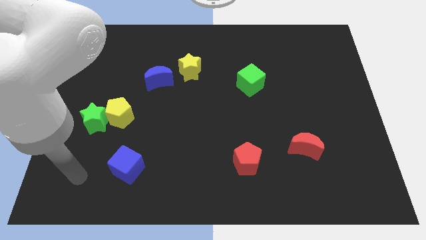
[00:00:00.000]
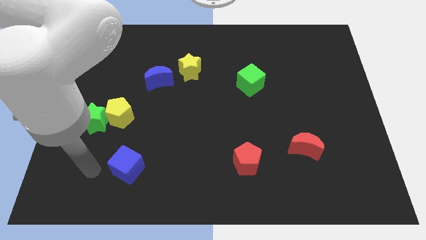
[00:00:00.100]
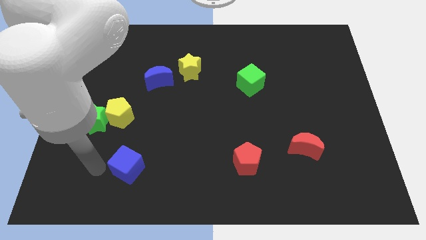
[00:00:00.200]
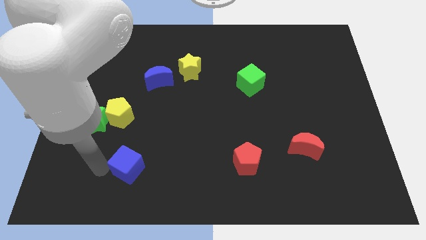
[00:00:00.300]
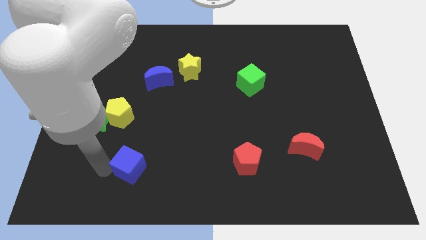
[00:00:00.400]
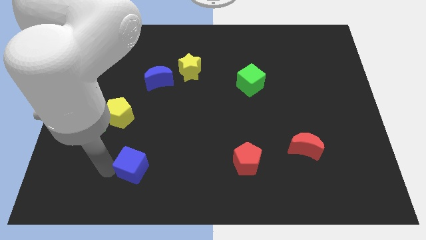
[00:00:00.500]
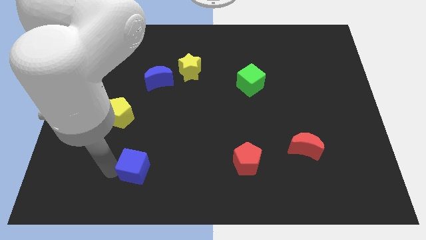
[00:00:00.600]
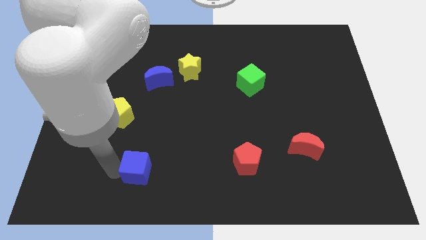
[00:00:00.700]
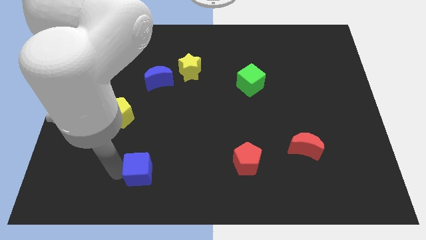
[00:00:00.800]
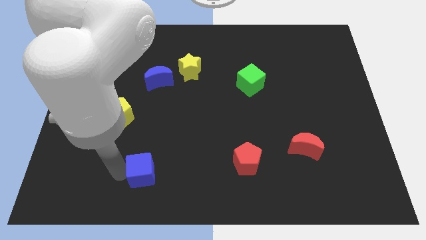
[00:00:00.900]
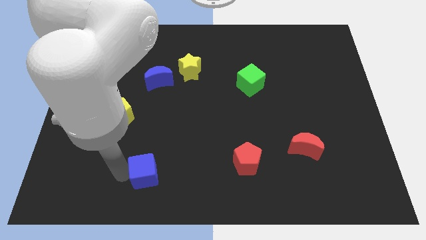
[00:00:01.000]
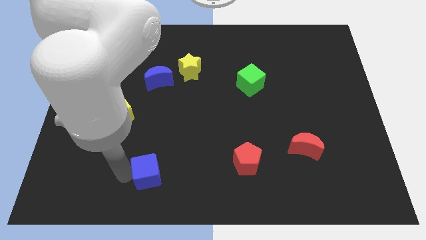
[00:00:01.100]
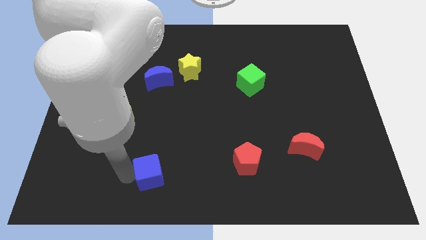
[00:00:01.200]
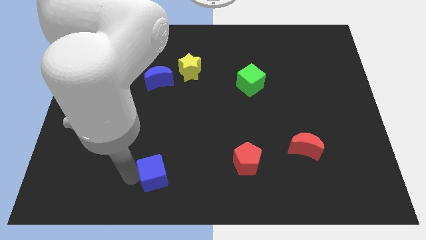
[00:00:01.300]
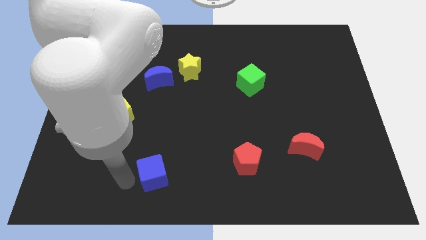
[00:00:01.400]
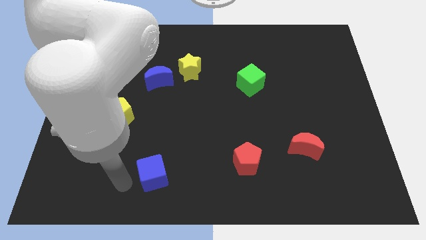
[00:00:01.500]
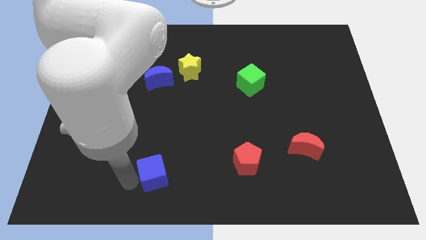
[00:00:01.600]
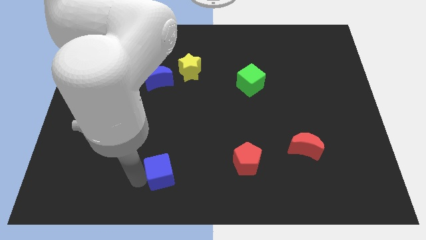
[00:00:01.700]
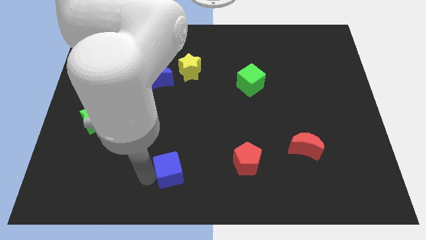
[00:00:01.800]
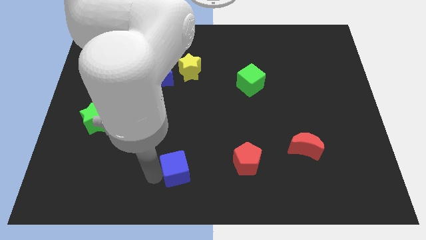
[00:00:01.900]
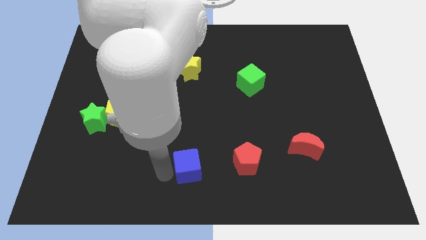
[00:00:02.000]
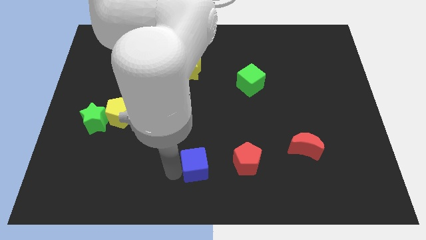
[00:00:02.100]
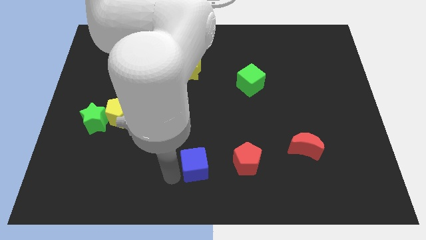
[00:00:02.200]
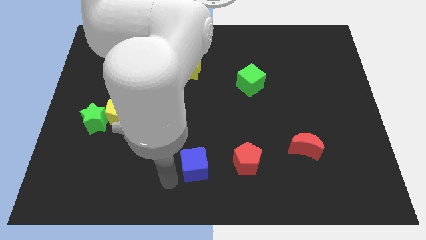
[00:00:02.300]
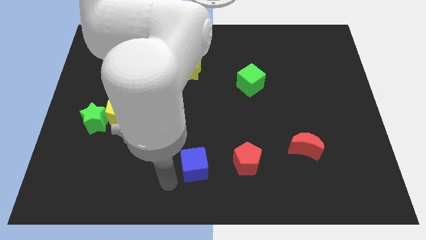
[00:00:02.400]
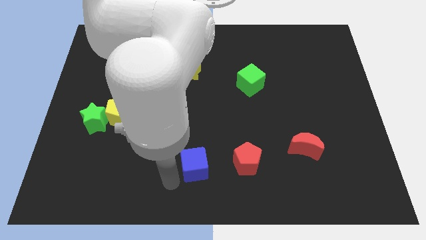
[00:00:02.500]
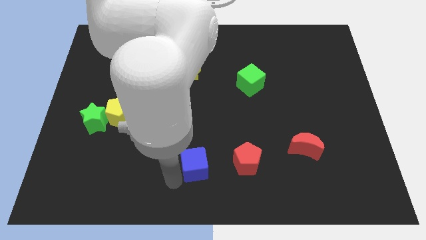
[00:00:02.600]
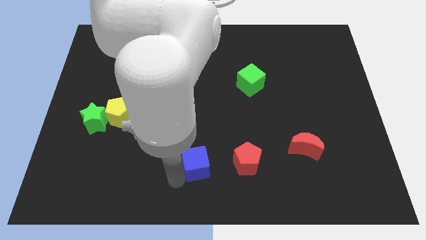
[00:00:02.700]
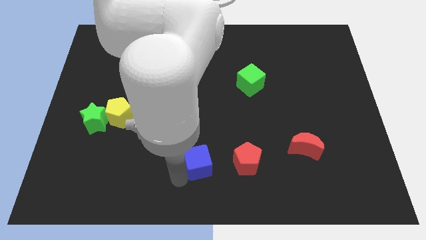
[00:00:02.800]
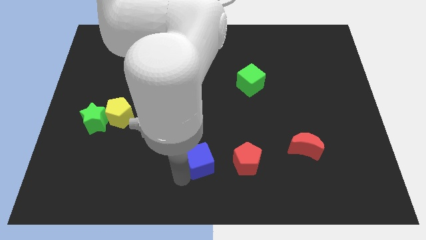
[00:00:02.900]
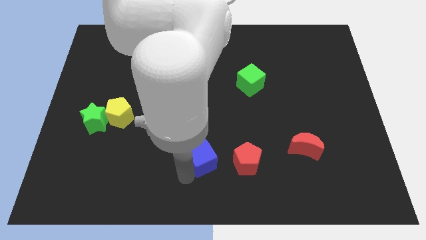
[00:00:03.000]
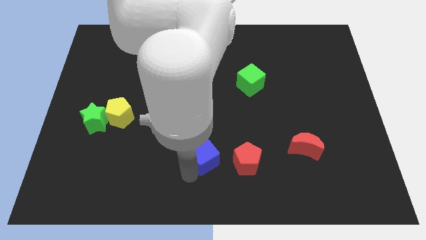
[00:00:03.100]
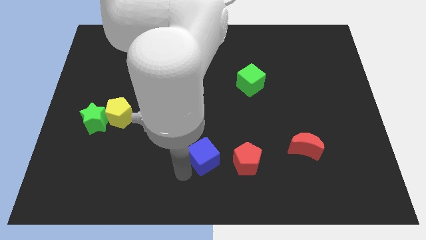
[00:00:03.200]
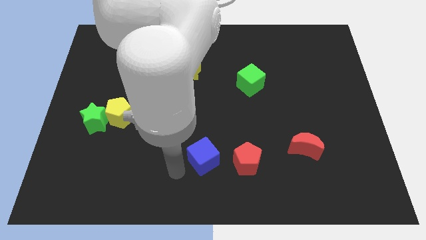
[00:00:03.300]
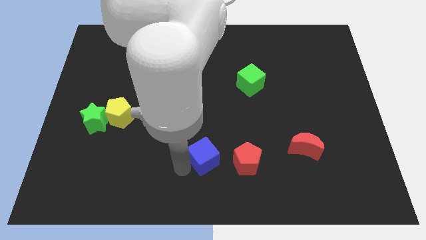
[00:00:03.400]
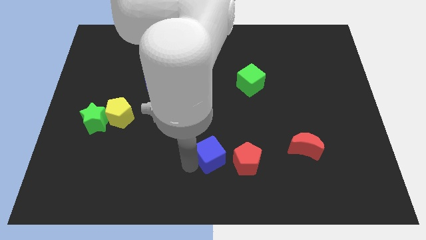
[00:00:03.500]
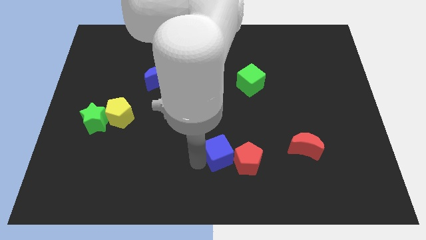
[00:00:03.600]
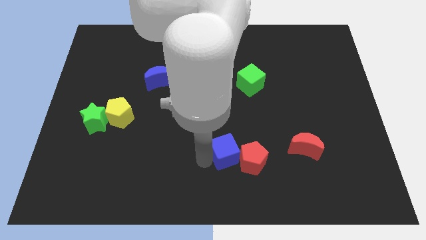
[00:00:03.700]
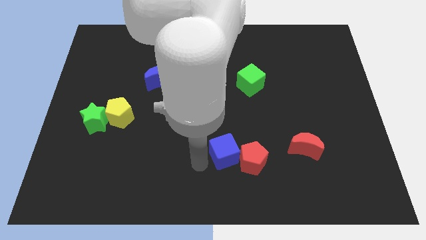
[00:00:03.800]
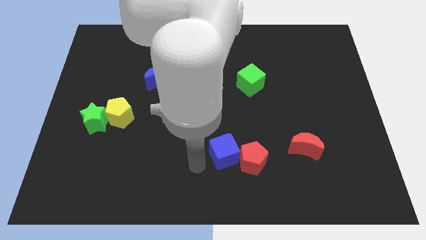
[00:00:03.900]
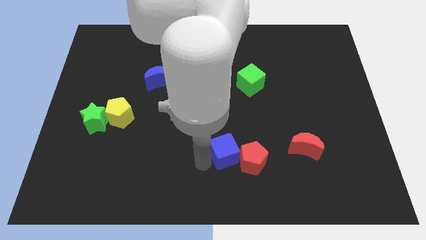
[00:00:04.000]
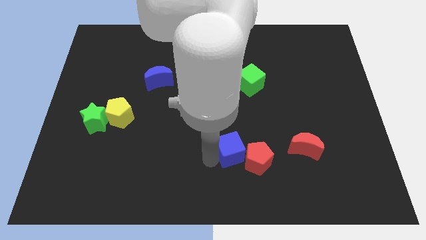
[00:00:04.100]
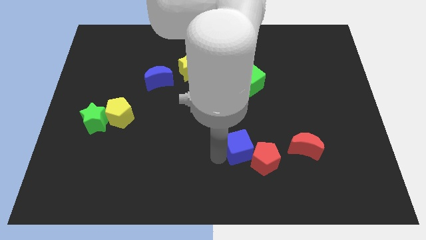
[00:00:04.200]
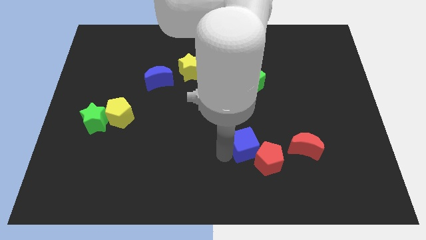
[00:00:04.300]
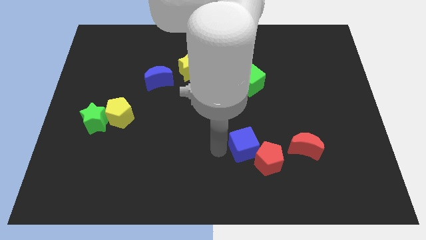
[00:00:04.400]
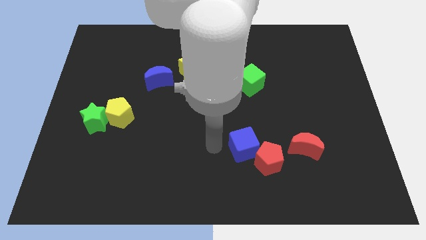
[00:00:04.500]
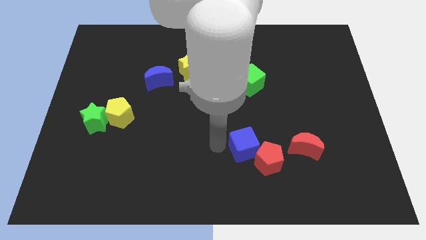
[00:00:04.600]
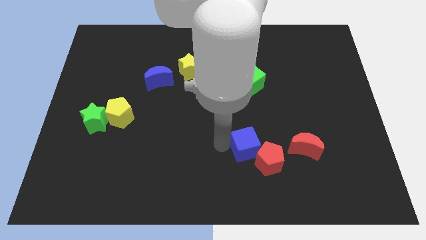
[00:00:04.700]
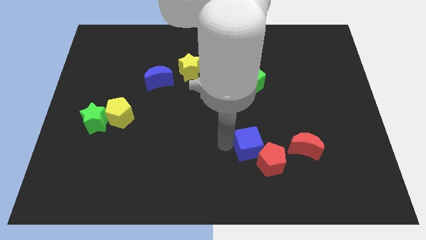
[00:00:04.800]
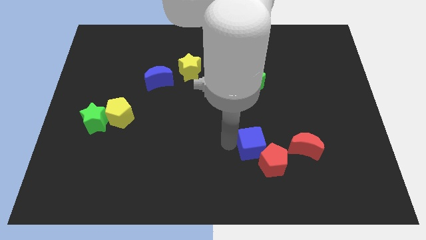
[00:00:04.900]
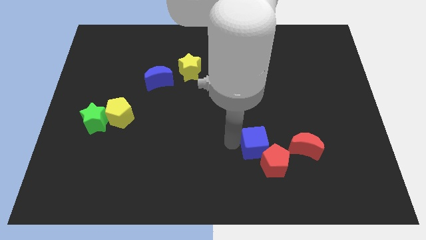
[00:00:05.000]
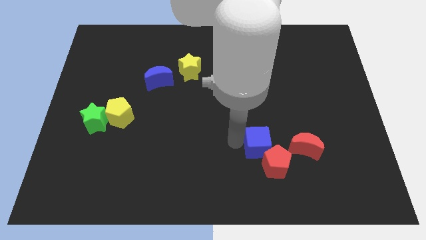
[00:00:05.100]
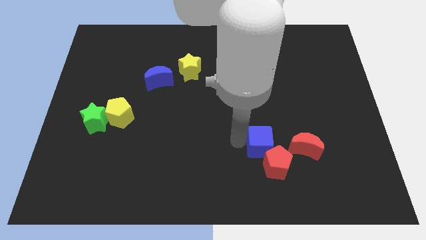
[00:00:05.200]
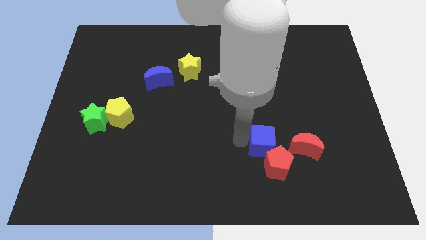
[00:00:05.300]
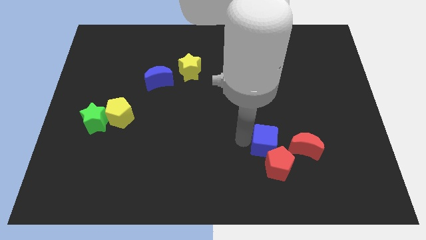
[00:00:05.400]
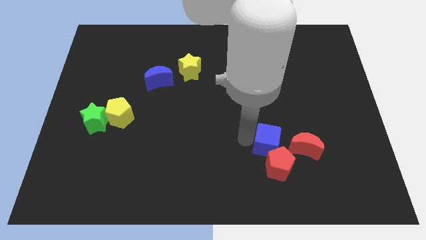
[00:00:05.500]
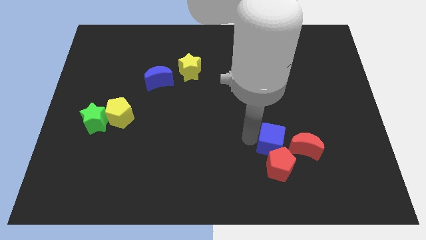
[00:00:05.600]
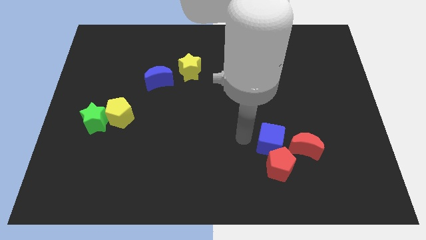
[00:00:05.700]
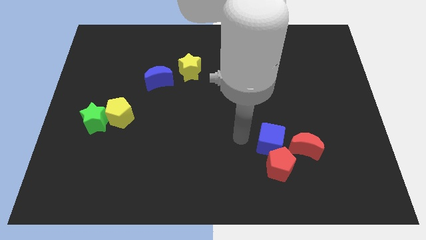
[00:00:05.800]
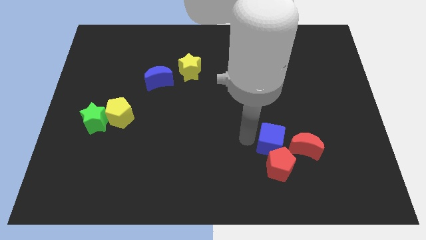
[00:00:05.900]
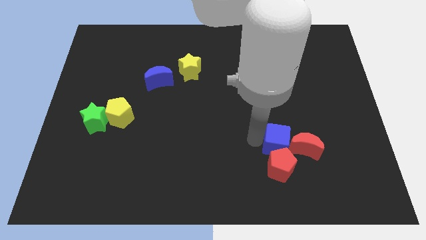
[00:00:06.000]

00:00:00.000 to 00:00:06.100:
put the blue cube to the red moon

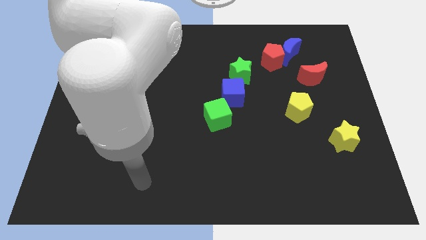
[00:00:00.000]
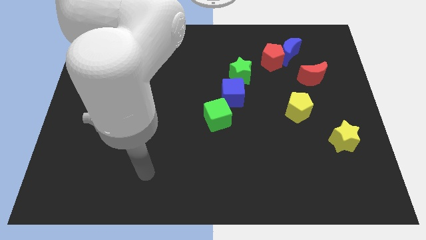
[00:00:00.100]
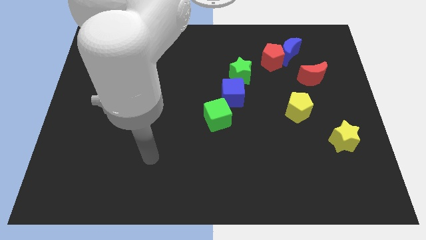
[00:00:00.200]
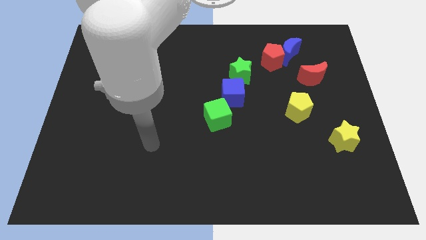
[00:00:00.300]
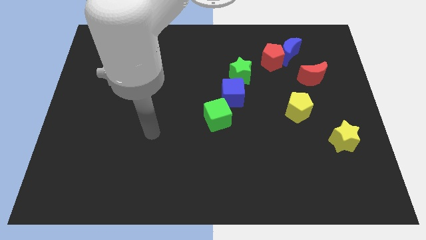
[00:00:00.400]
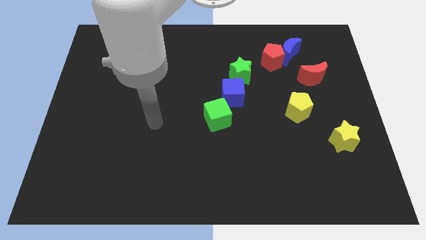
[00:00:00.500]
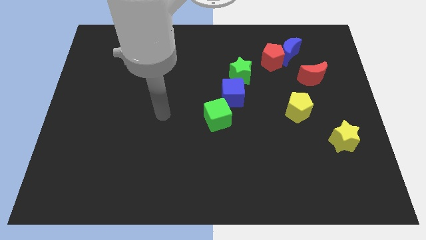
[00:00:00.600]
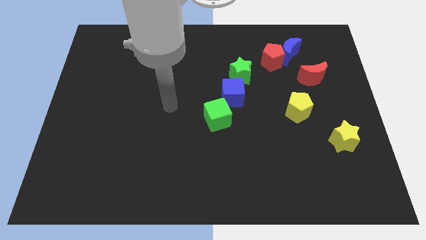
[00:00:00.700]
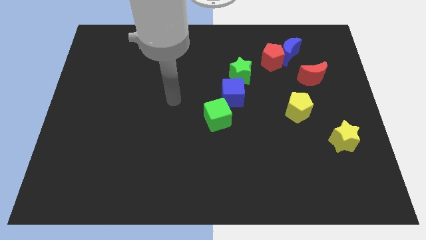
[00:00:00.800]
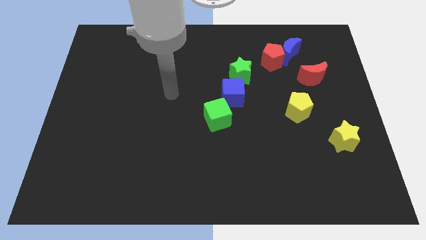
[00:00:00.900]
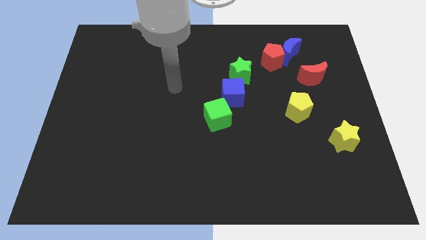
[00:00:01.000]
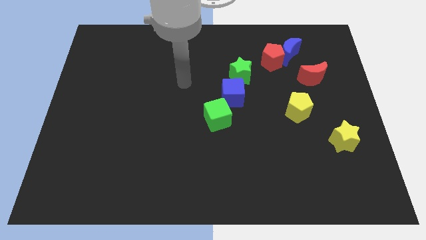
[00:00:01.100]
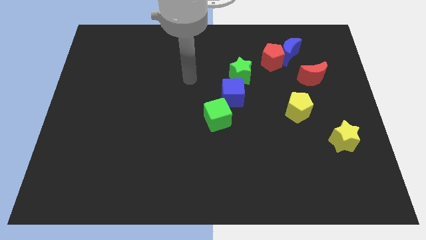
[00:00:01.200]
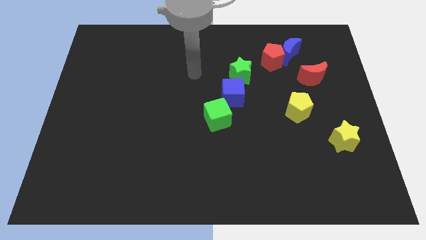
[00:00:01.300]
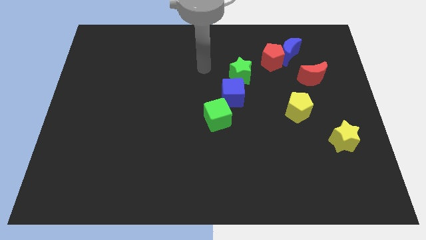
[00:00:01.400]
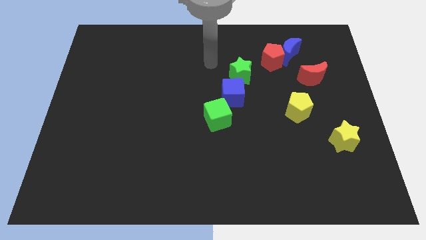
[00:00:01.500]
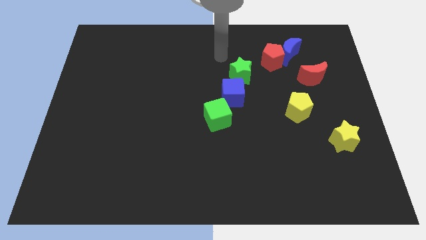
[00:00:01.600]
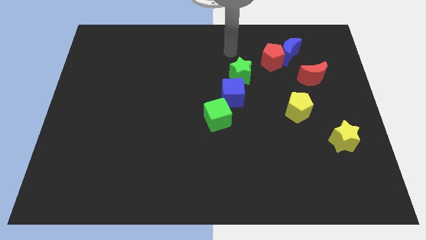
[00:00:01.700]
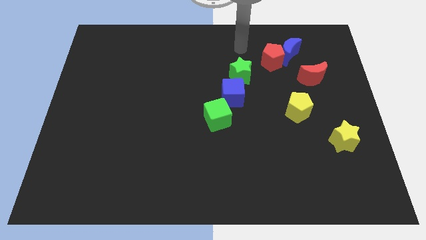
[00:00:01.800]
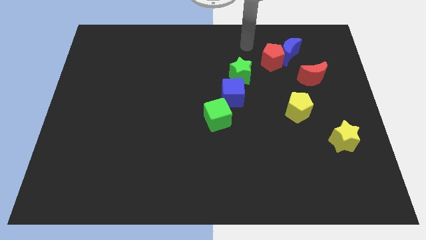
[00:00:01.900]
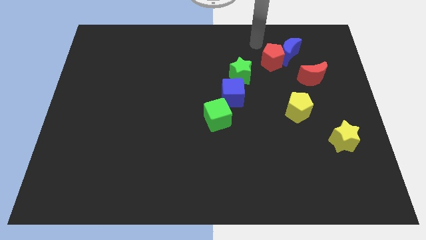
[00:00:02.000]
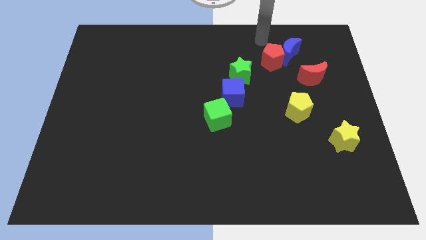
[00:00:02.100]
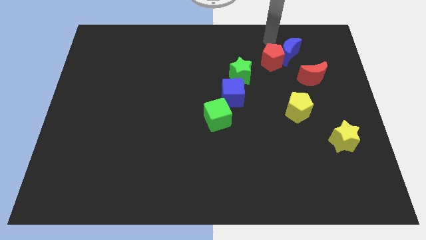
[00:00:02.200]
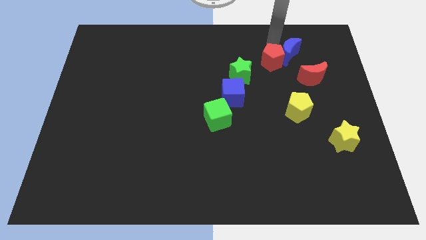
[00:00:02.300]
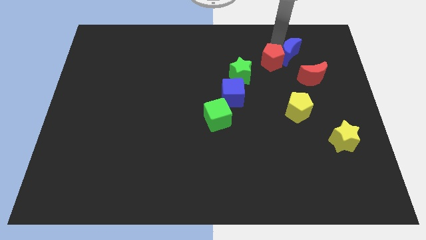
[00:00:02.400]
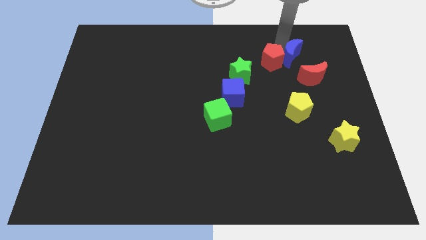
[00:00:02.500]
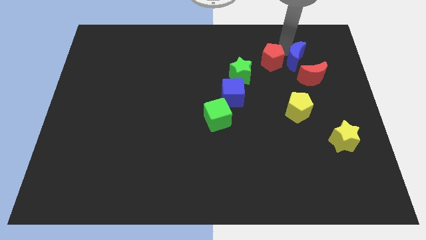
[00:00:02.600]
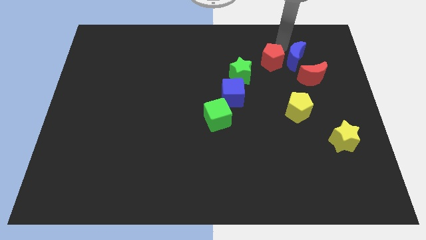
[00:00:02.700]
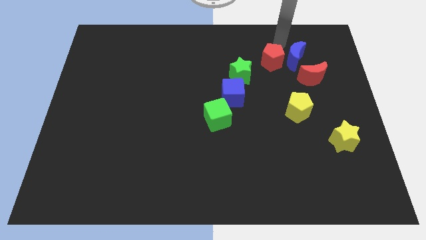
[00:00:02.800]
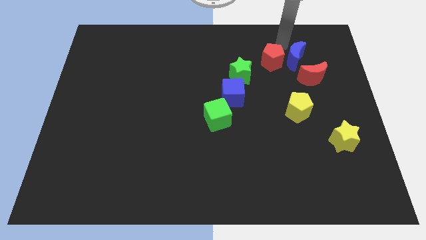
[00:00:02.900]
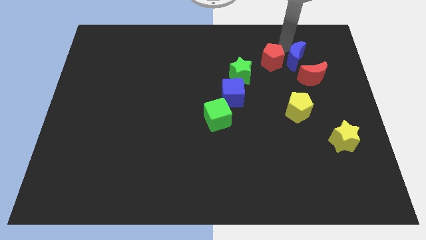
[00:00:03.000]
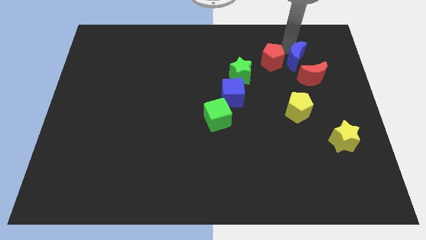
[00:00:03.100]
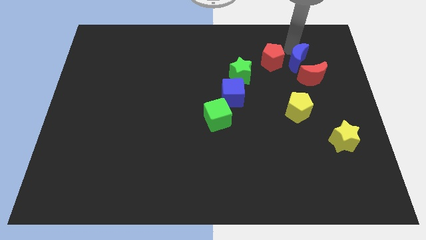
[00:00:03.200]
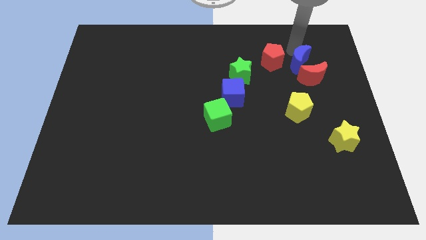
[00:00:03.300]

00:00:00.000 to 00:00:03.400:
put the blue moon to the red moon
